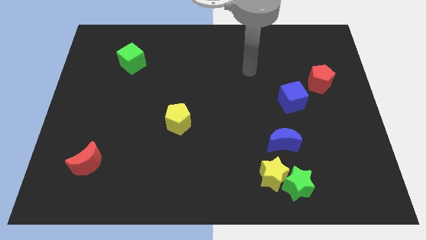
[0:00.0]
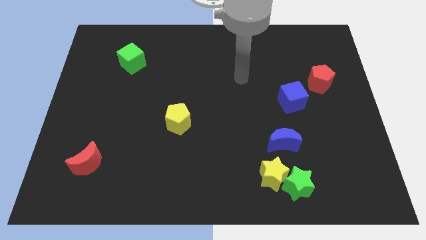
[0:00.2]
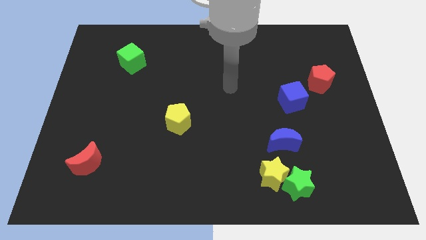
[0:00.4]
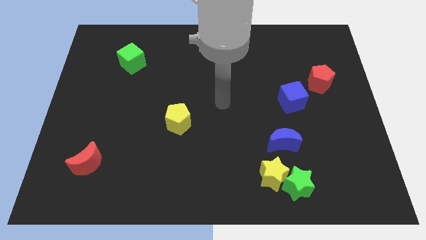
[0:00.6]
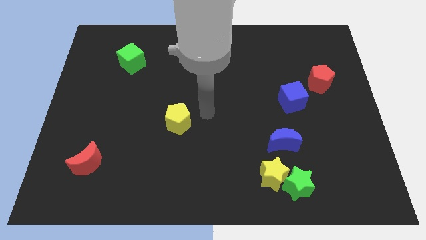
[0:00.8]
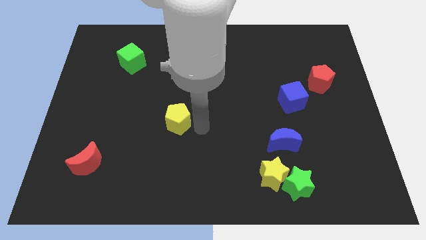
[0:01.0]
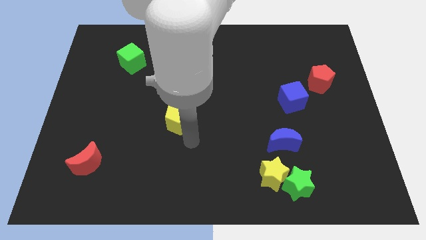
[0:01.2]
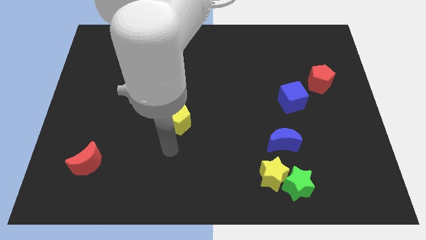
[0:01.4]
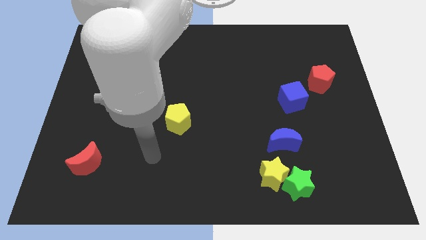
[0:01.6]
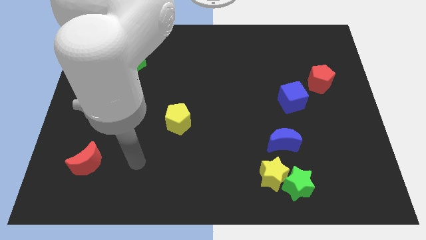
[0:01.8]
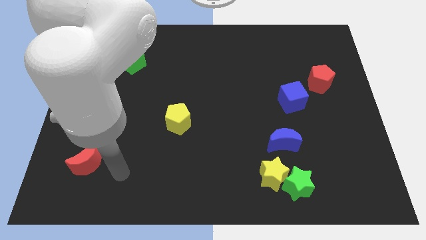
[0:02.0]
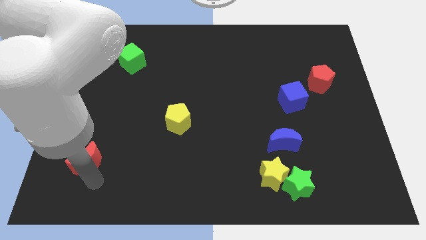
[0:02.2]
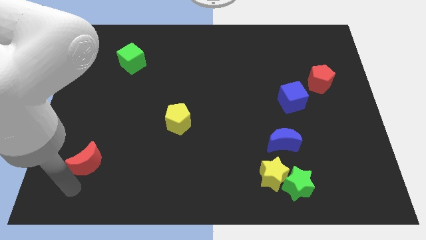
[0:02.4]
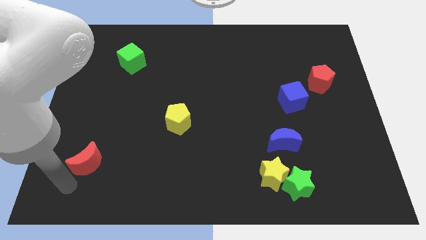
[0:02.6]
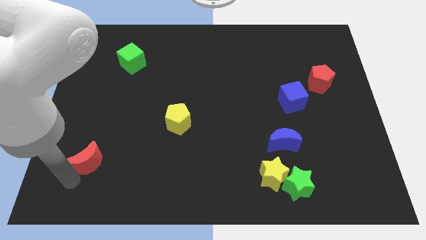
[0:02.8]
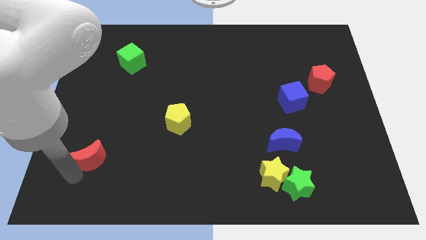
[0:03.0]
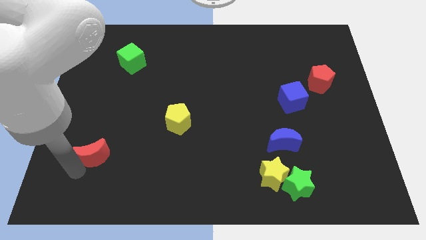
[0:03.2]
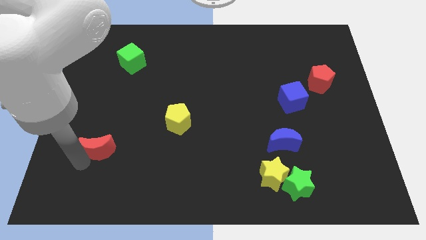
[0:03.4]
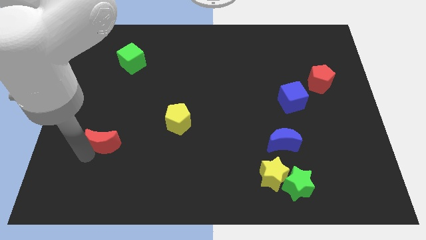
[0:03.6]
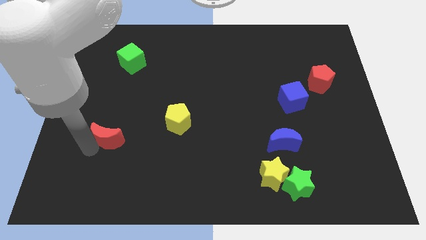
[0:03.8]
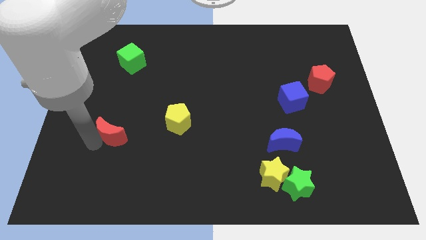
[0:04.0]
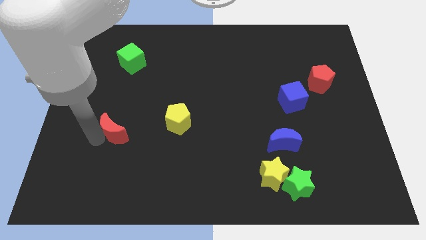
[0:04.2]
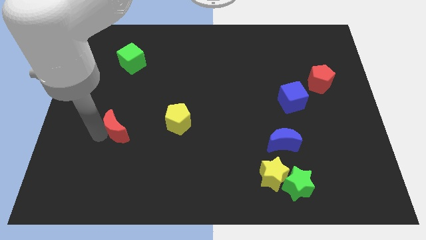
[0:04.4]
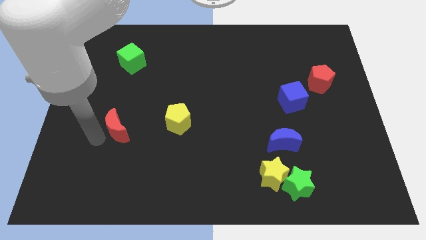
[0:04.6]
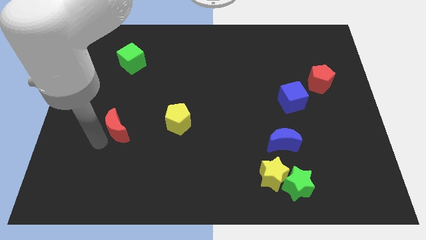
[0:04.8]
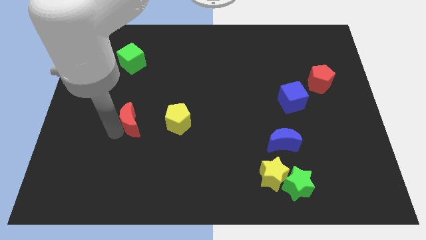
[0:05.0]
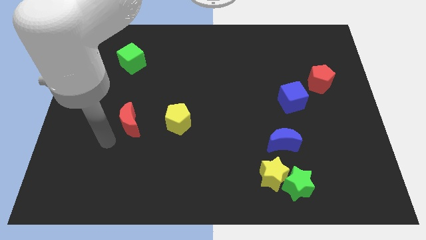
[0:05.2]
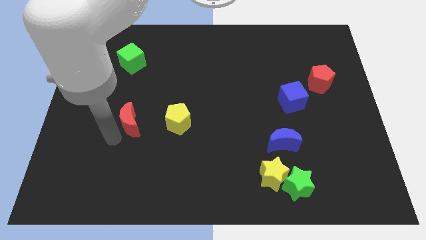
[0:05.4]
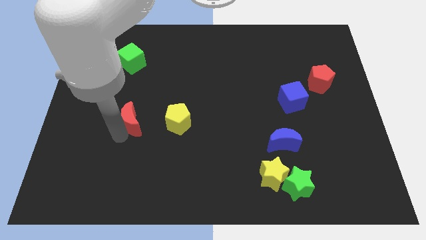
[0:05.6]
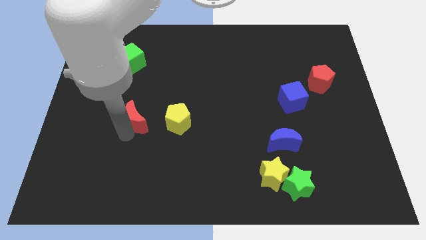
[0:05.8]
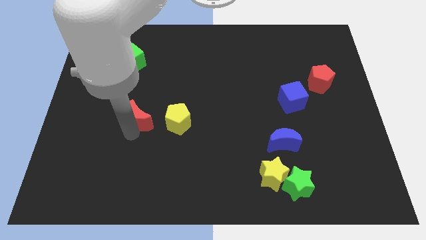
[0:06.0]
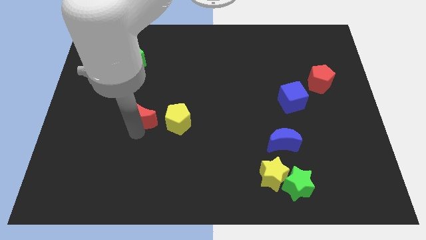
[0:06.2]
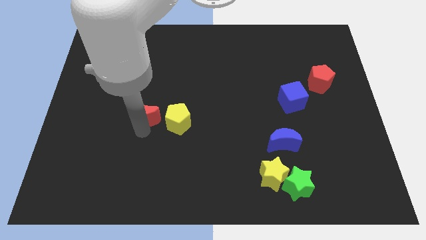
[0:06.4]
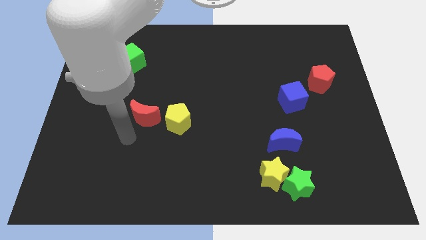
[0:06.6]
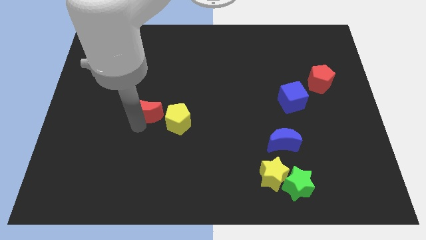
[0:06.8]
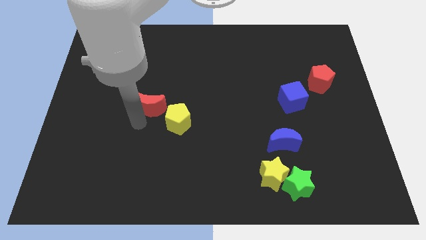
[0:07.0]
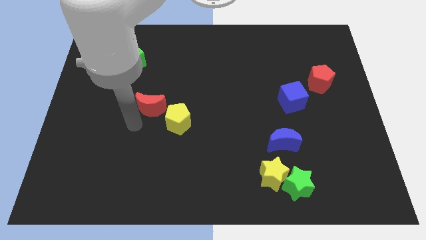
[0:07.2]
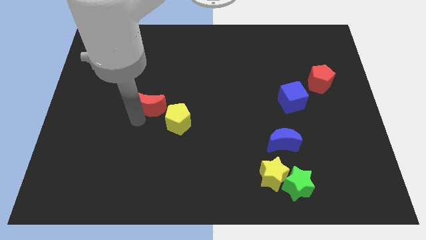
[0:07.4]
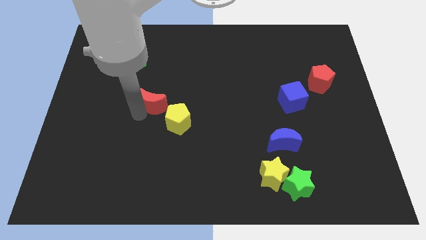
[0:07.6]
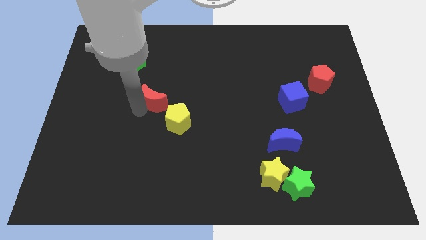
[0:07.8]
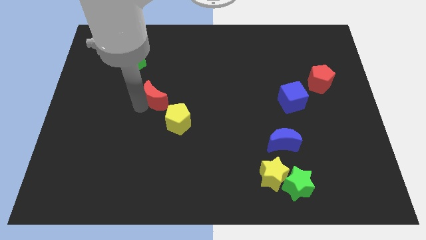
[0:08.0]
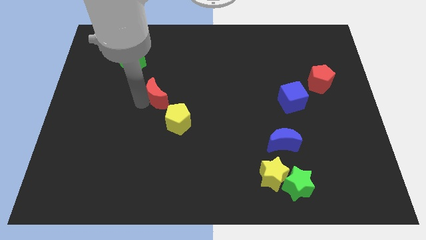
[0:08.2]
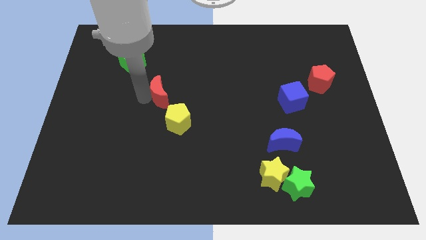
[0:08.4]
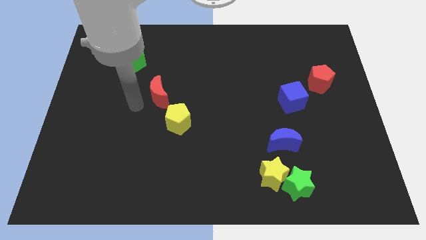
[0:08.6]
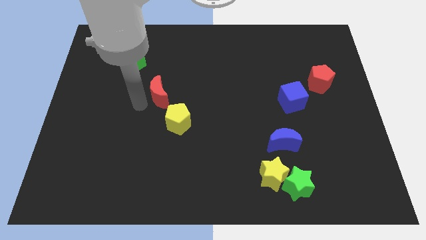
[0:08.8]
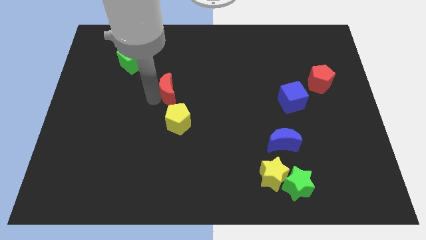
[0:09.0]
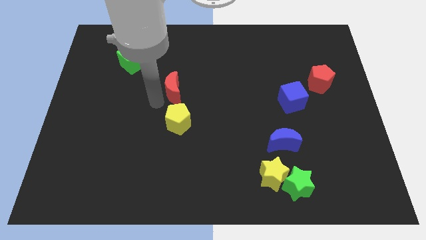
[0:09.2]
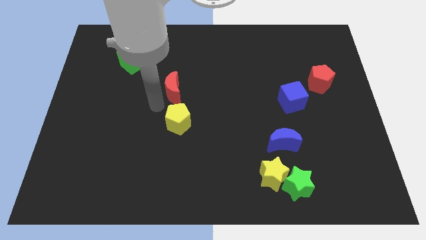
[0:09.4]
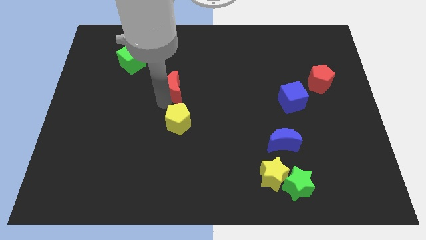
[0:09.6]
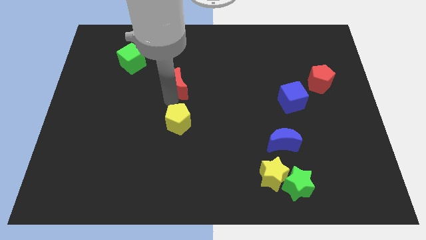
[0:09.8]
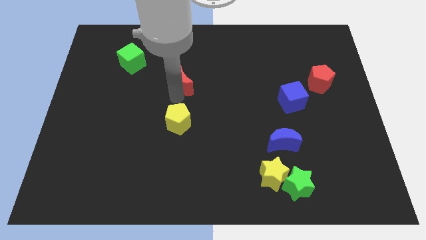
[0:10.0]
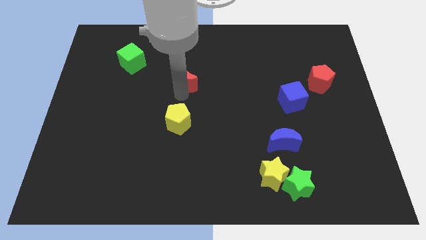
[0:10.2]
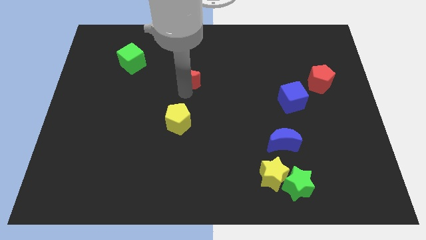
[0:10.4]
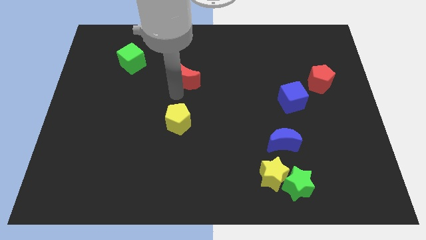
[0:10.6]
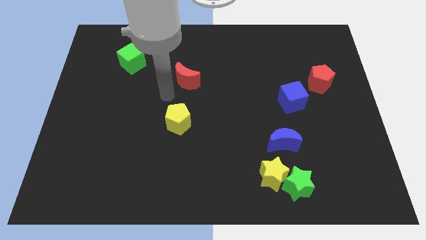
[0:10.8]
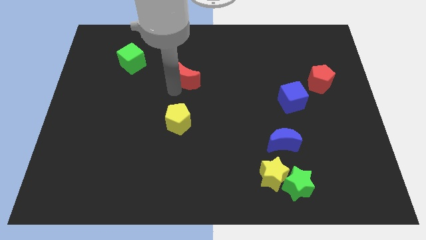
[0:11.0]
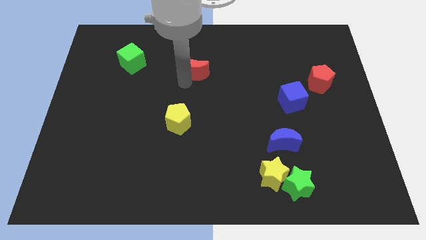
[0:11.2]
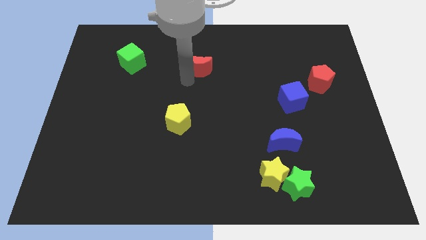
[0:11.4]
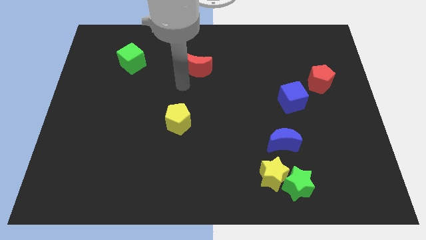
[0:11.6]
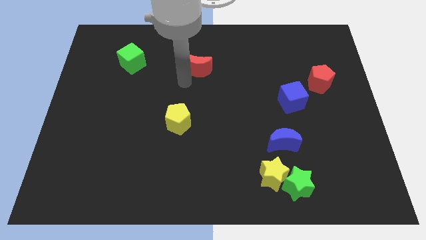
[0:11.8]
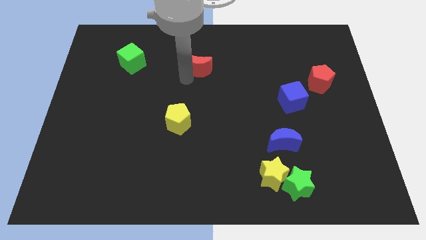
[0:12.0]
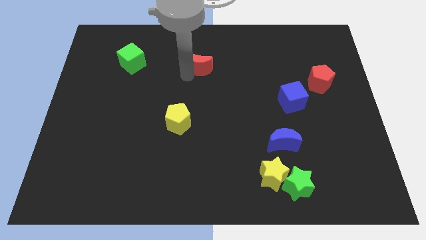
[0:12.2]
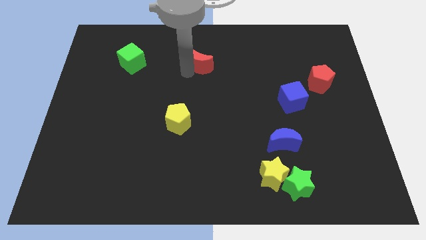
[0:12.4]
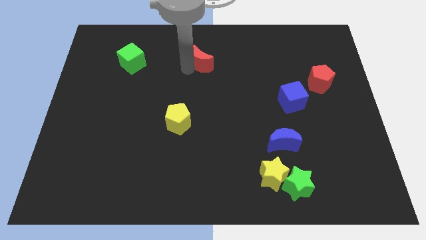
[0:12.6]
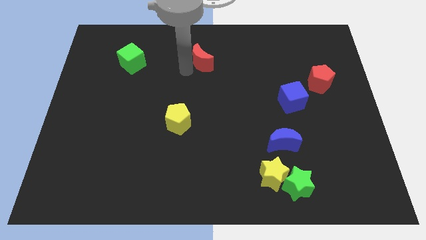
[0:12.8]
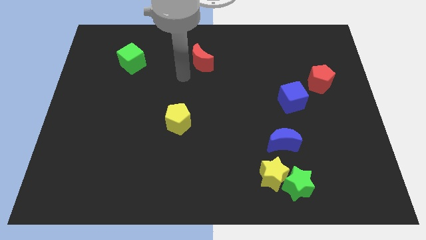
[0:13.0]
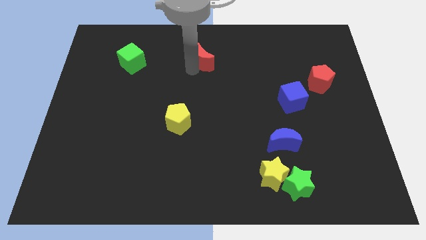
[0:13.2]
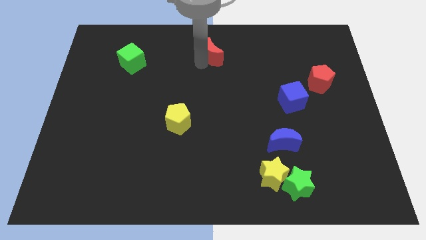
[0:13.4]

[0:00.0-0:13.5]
put the red moon to the top side

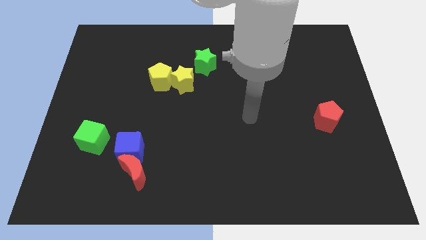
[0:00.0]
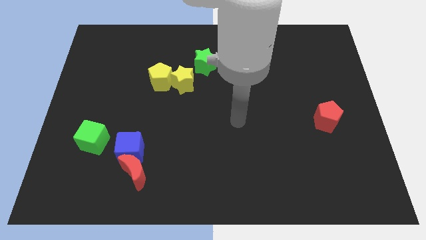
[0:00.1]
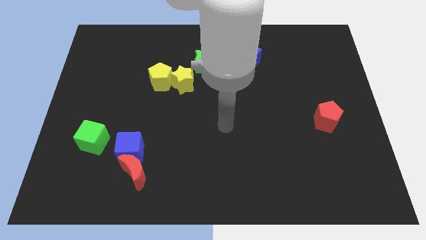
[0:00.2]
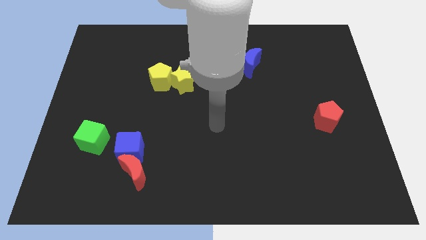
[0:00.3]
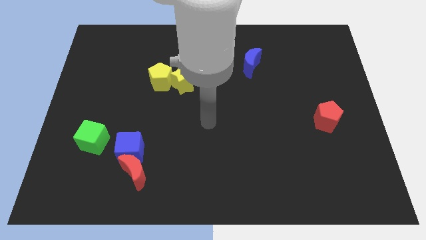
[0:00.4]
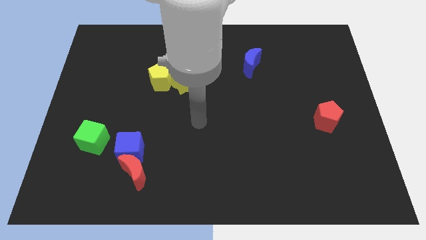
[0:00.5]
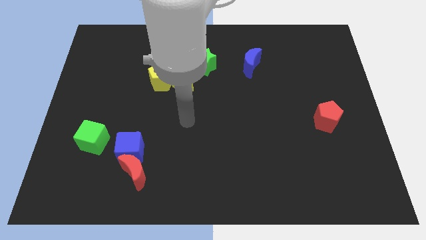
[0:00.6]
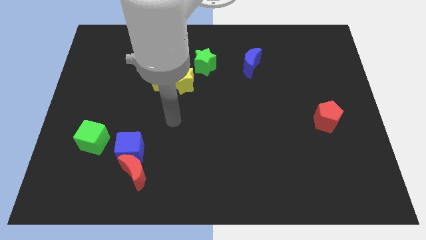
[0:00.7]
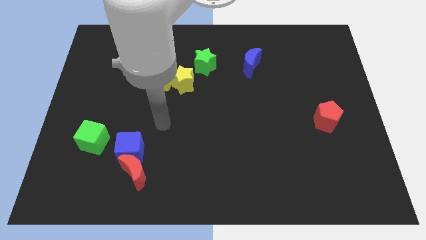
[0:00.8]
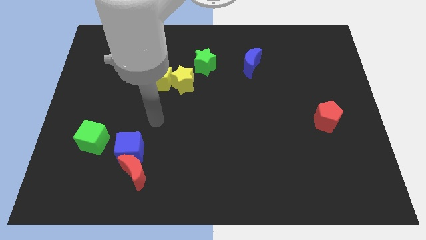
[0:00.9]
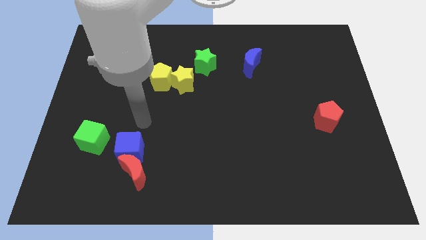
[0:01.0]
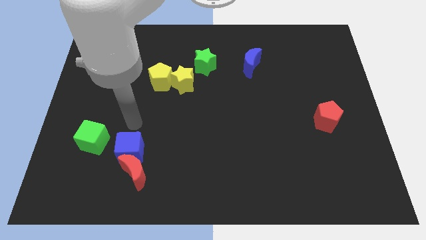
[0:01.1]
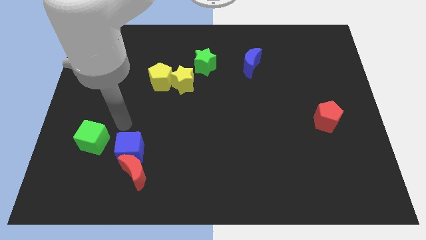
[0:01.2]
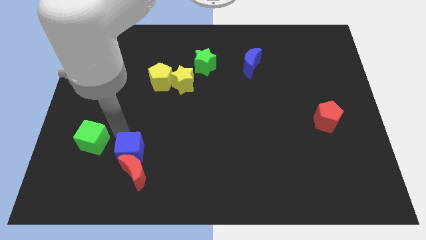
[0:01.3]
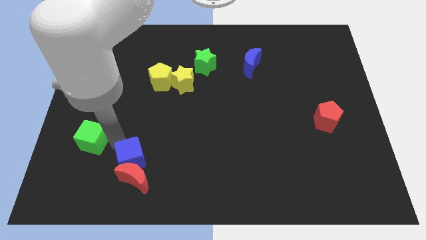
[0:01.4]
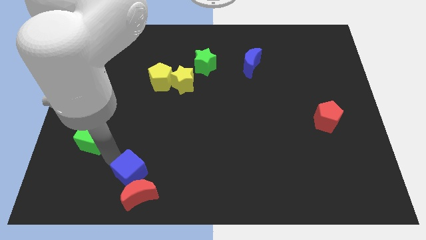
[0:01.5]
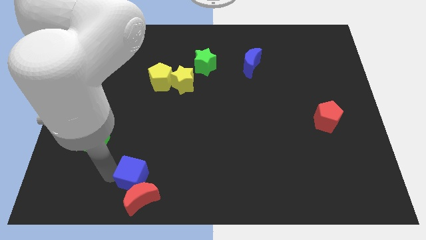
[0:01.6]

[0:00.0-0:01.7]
slide the red moon to the bottom
